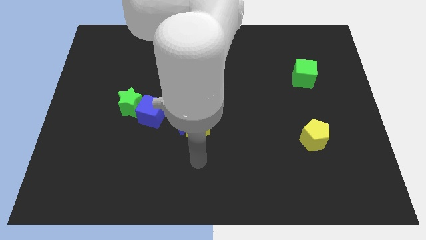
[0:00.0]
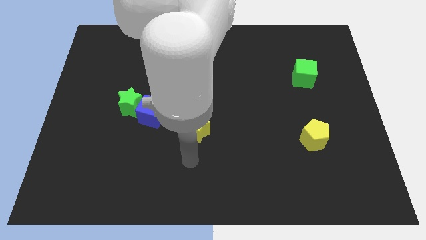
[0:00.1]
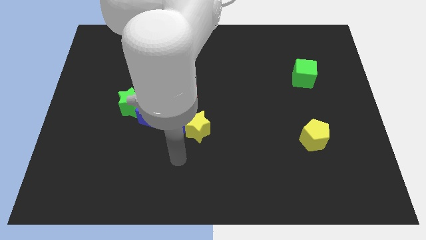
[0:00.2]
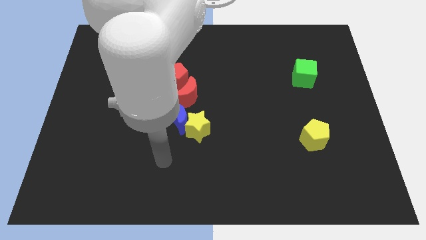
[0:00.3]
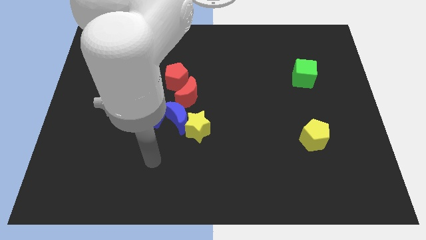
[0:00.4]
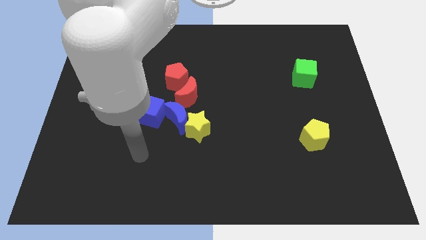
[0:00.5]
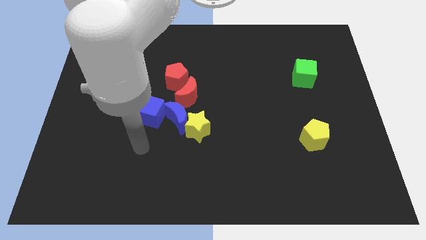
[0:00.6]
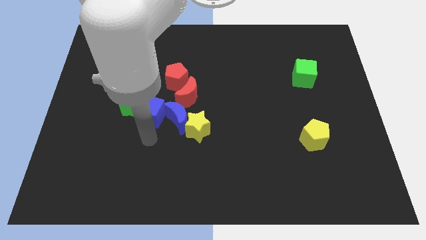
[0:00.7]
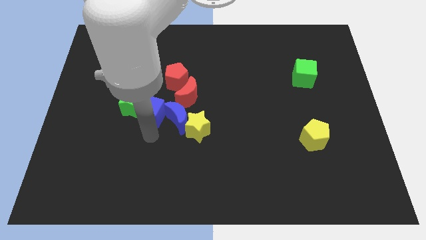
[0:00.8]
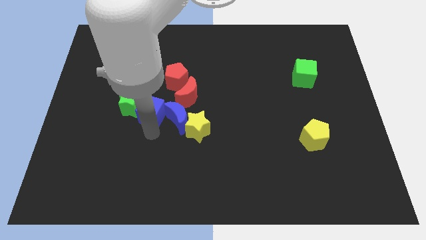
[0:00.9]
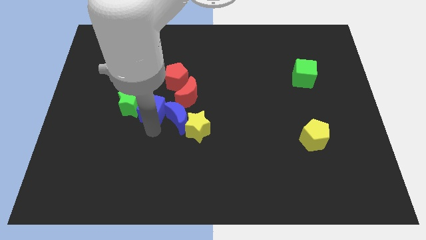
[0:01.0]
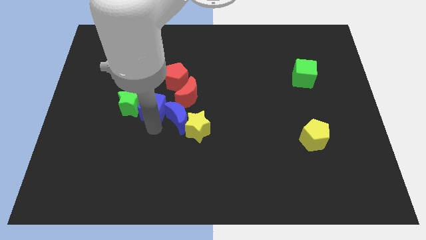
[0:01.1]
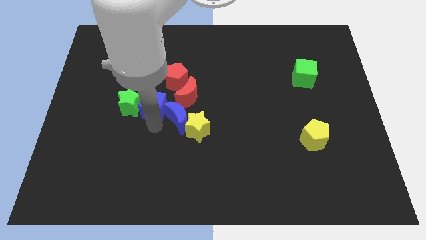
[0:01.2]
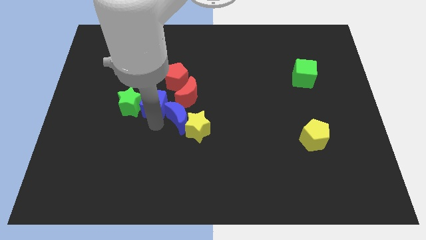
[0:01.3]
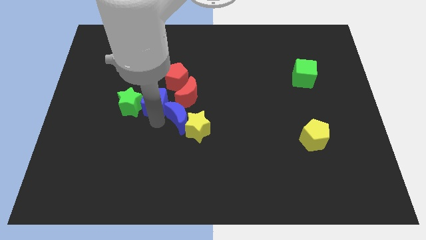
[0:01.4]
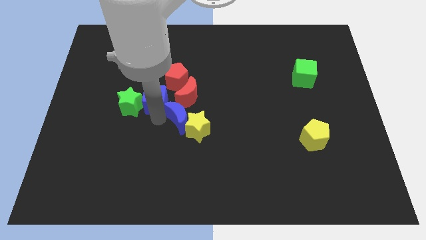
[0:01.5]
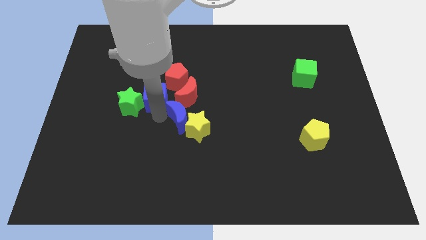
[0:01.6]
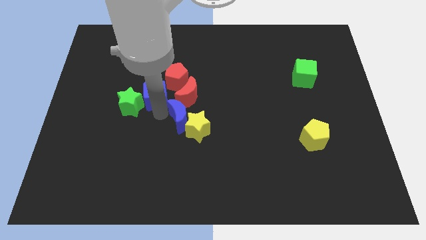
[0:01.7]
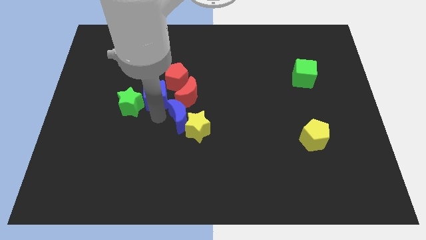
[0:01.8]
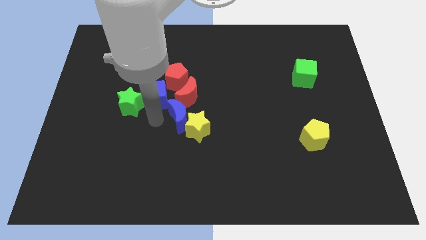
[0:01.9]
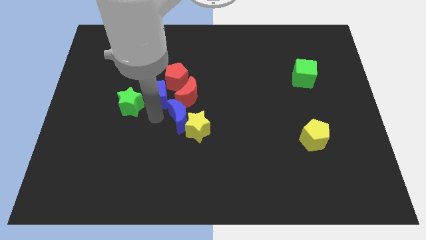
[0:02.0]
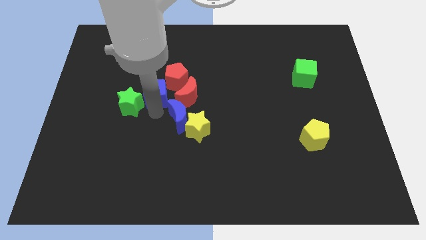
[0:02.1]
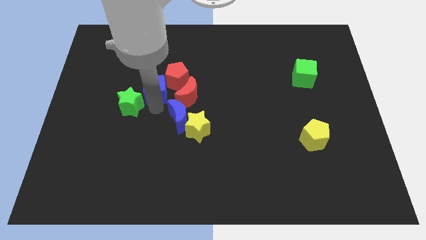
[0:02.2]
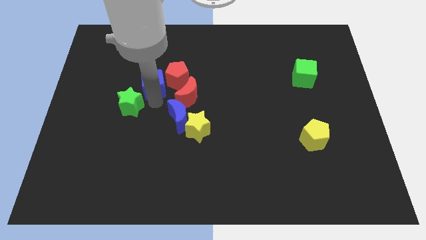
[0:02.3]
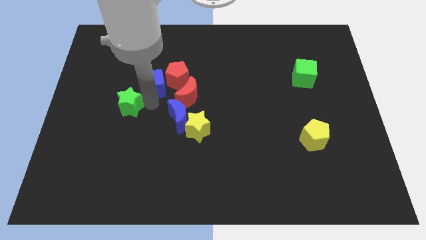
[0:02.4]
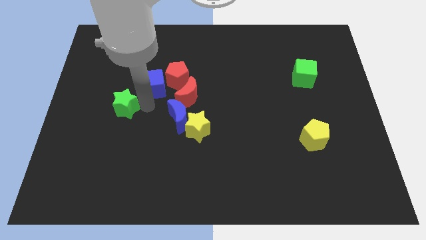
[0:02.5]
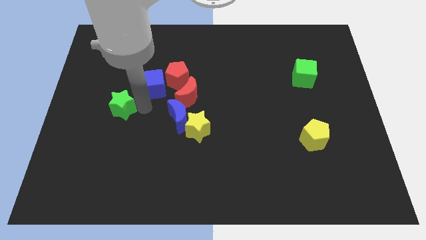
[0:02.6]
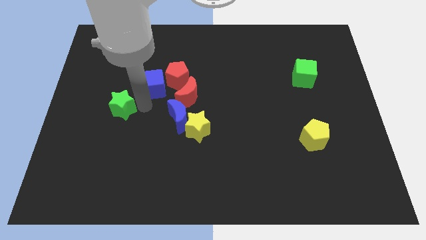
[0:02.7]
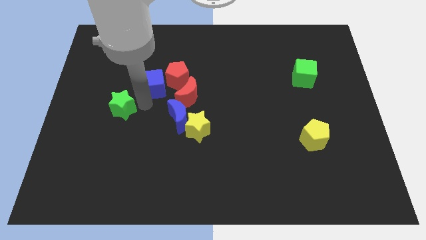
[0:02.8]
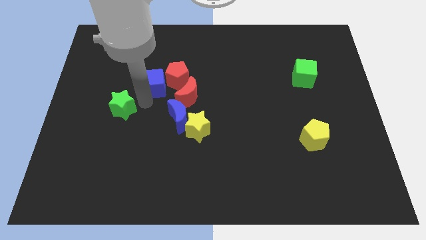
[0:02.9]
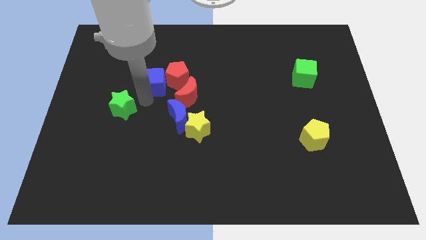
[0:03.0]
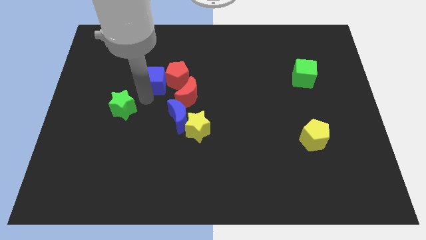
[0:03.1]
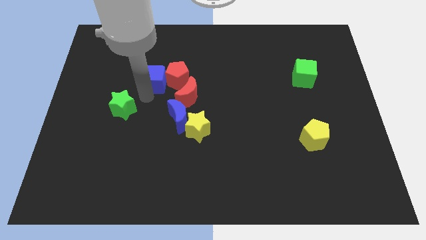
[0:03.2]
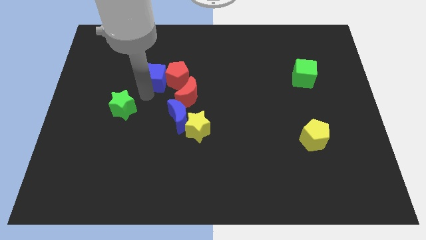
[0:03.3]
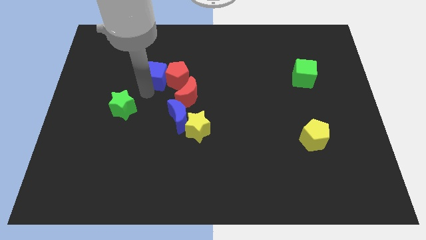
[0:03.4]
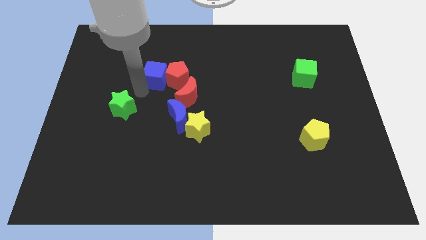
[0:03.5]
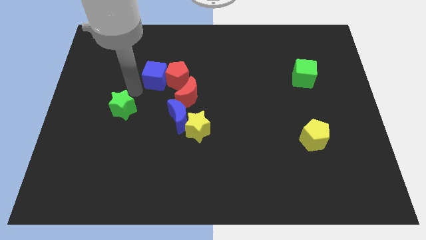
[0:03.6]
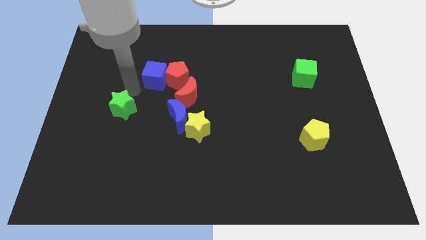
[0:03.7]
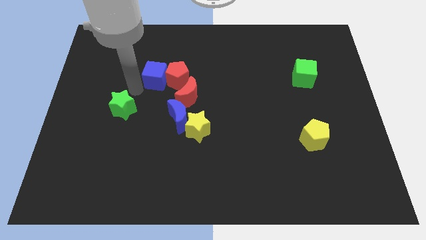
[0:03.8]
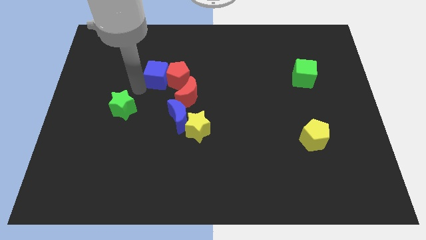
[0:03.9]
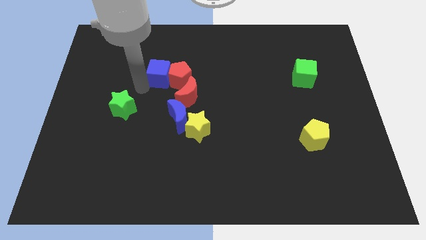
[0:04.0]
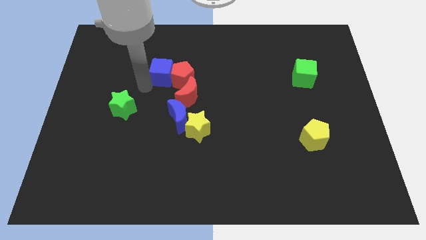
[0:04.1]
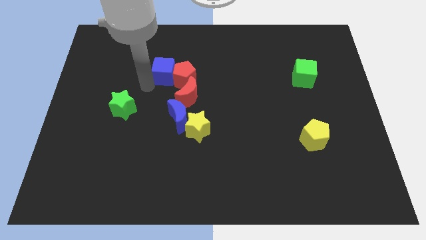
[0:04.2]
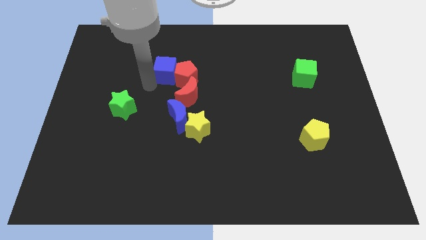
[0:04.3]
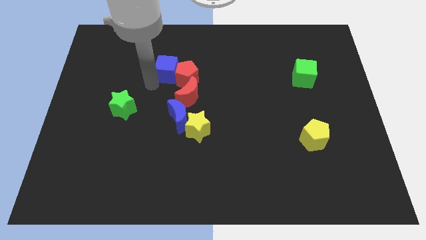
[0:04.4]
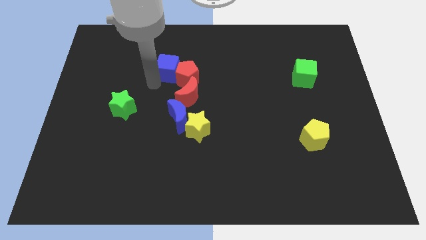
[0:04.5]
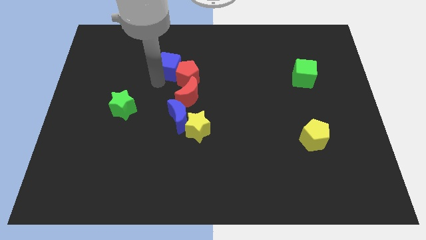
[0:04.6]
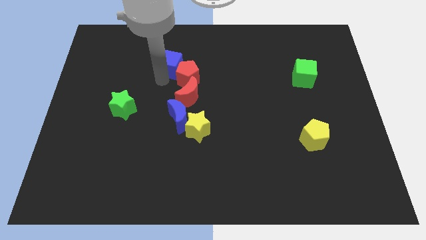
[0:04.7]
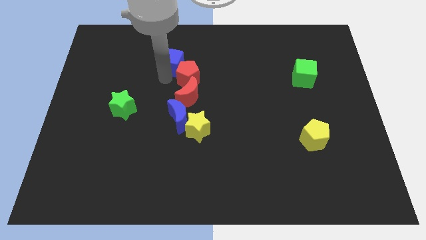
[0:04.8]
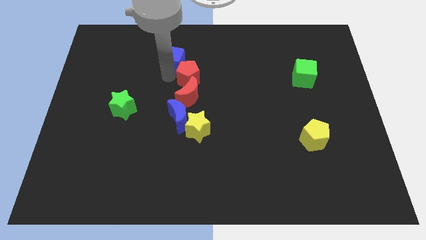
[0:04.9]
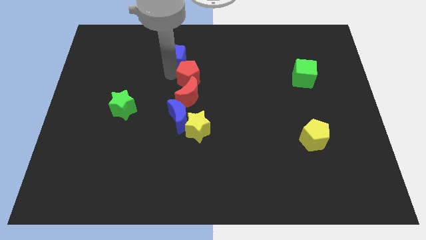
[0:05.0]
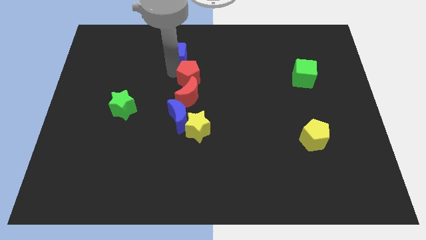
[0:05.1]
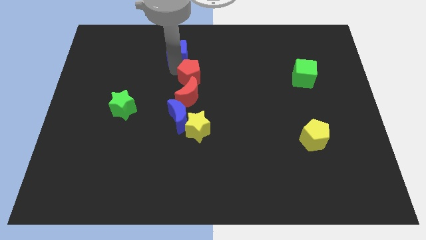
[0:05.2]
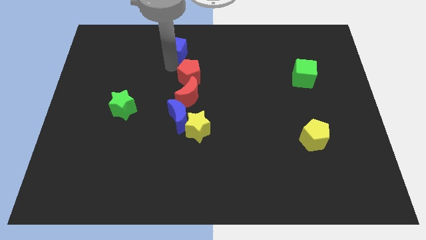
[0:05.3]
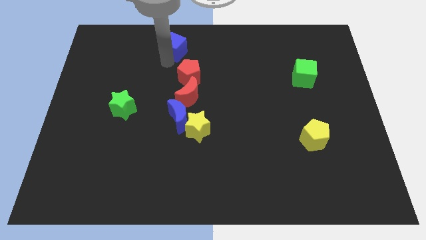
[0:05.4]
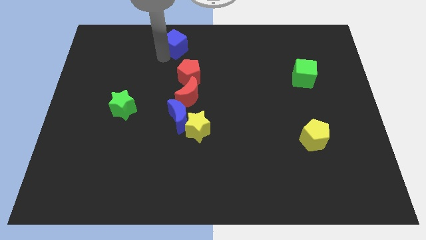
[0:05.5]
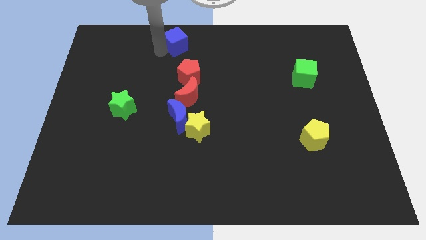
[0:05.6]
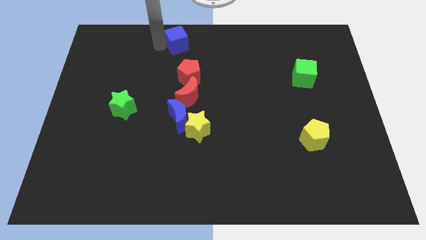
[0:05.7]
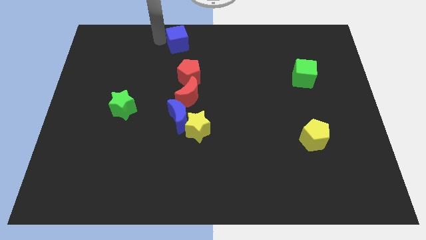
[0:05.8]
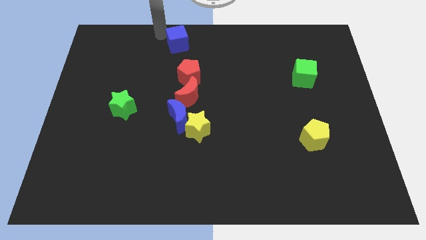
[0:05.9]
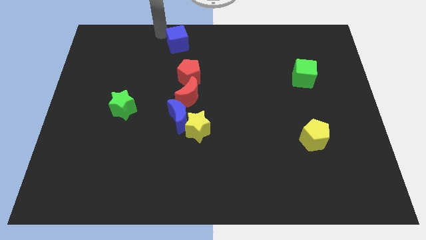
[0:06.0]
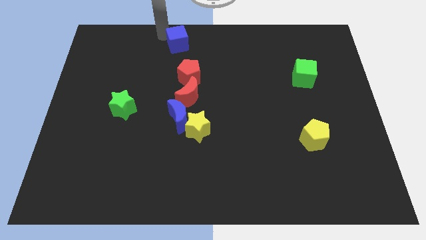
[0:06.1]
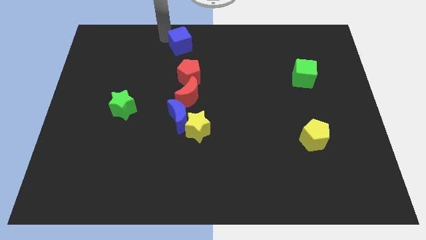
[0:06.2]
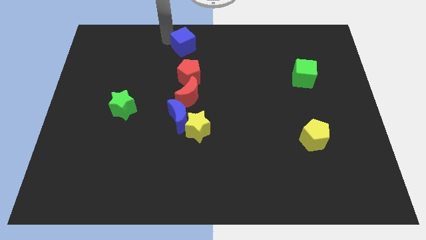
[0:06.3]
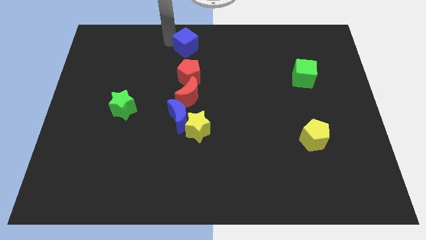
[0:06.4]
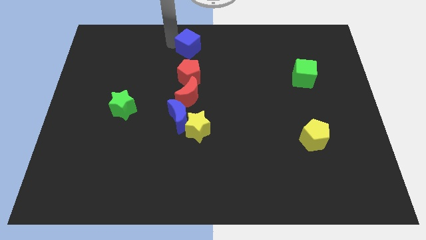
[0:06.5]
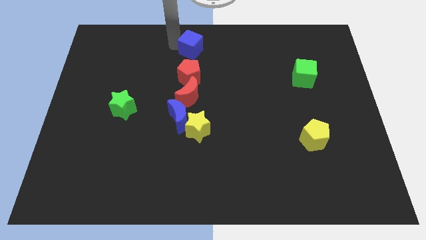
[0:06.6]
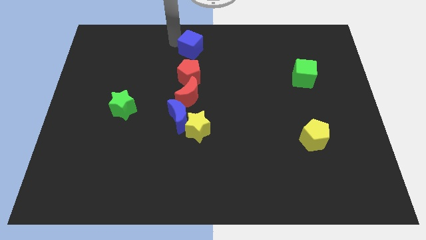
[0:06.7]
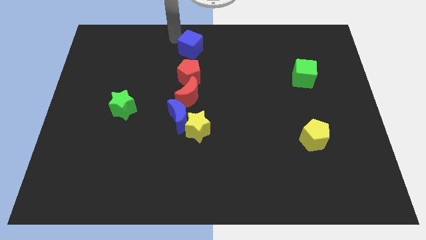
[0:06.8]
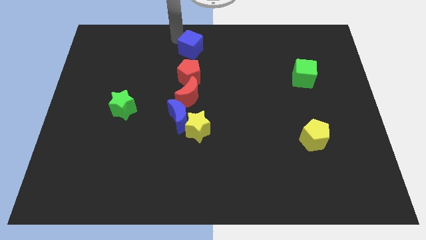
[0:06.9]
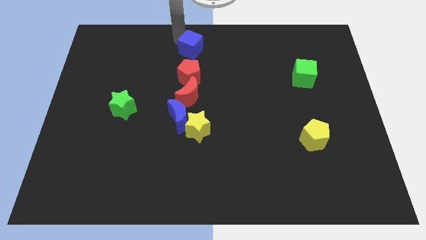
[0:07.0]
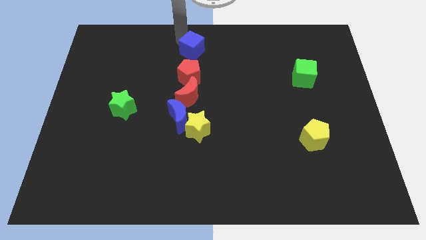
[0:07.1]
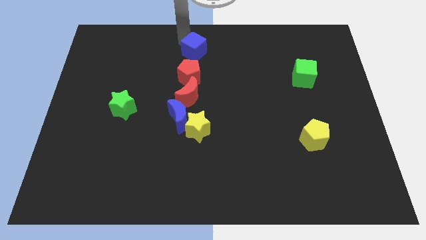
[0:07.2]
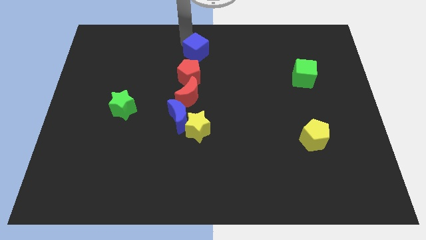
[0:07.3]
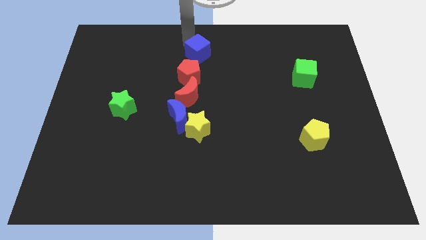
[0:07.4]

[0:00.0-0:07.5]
push the blue cube diagonally up and to the right of the red pentagon
